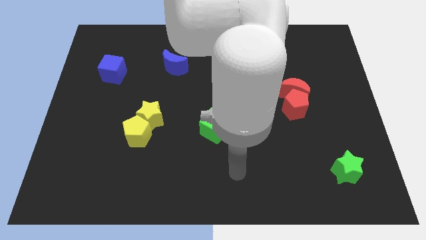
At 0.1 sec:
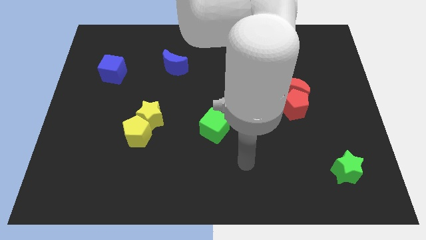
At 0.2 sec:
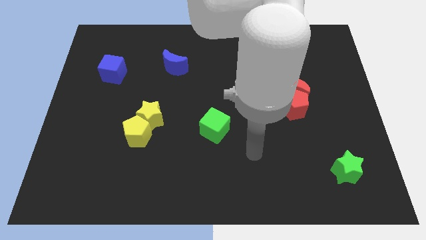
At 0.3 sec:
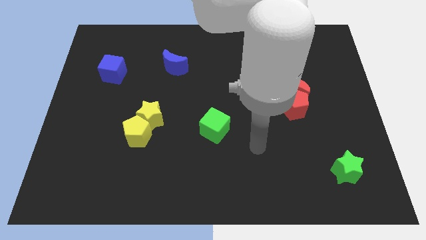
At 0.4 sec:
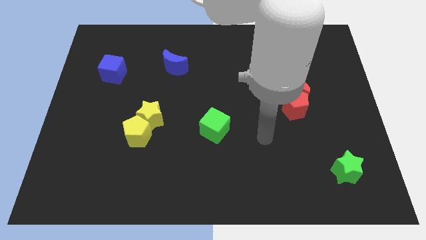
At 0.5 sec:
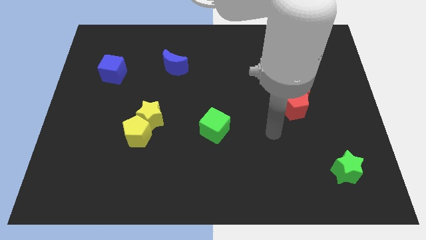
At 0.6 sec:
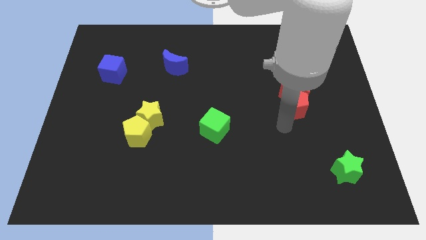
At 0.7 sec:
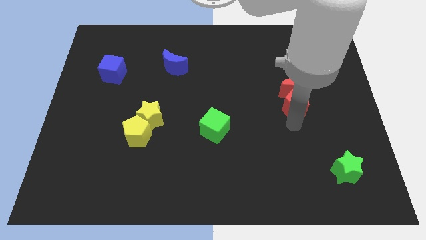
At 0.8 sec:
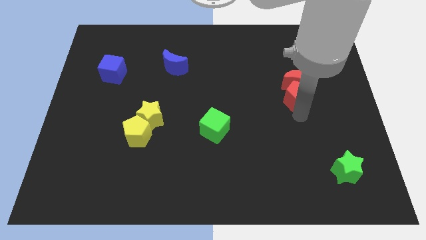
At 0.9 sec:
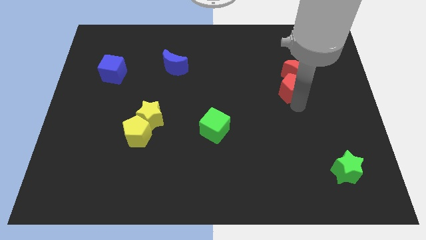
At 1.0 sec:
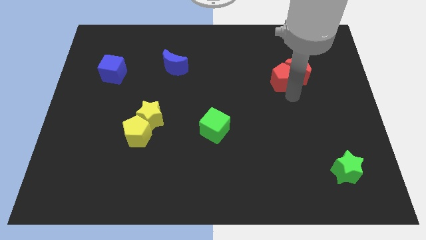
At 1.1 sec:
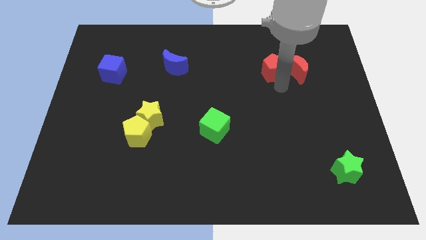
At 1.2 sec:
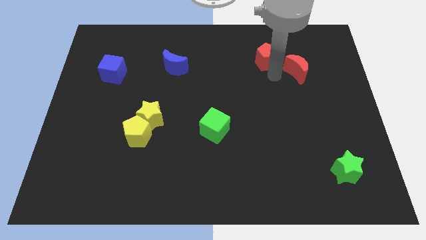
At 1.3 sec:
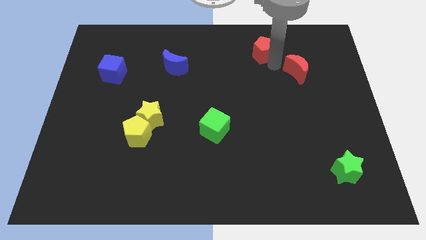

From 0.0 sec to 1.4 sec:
pull the red moon apart from the red pentagon

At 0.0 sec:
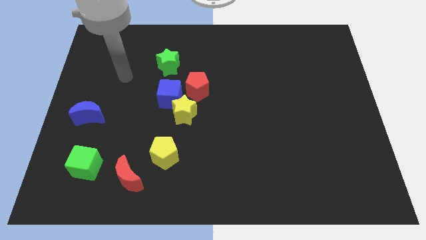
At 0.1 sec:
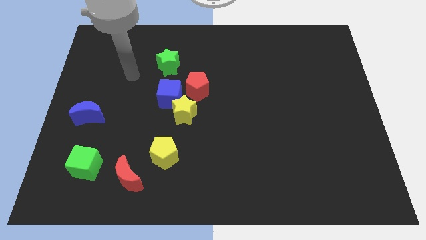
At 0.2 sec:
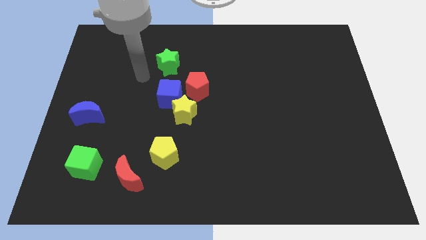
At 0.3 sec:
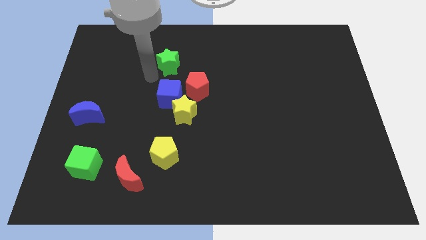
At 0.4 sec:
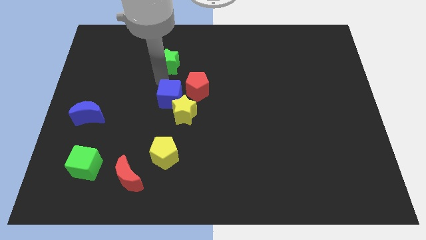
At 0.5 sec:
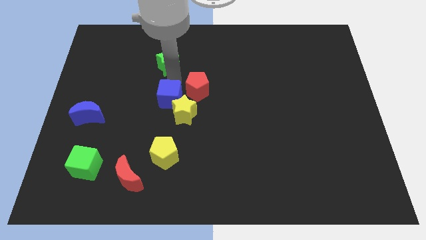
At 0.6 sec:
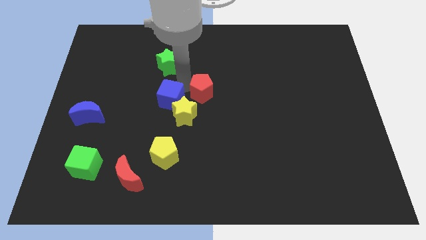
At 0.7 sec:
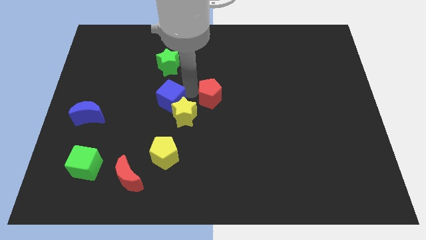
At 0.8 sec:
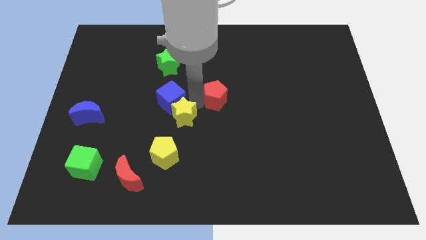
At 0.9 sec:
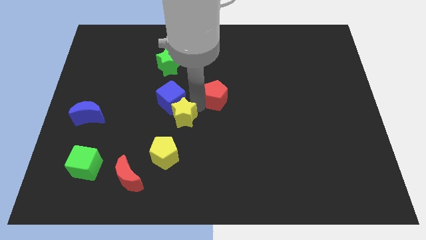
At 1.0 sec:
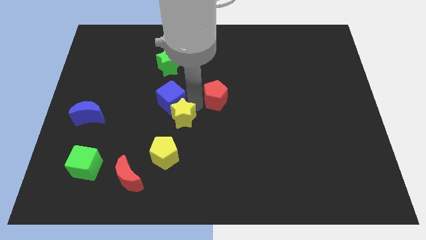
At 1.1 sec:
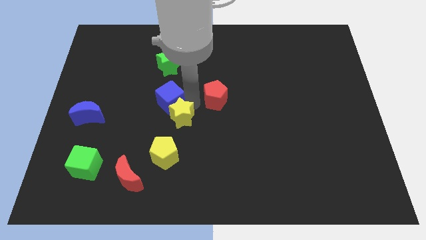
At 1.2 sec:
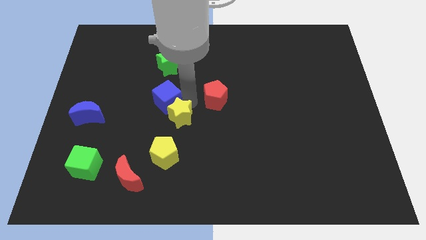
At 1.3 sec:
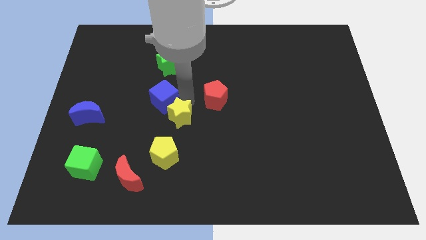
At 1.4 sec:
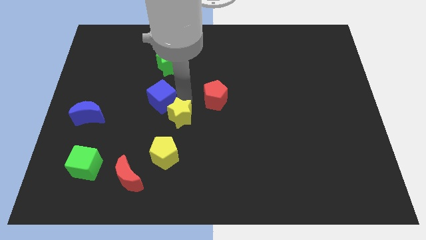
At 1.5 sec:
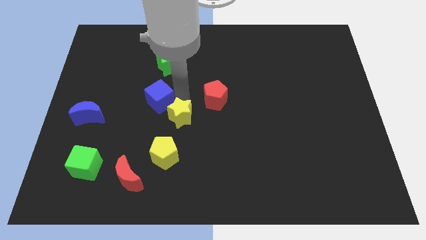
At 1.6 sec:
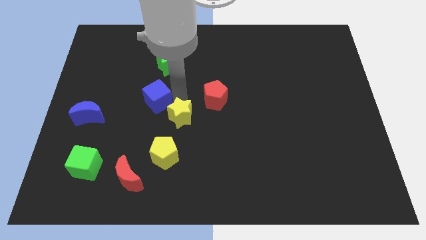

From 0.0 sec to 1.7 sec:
separate the blue cube from the yellow star and red pentagon

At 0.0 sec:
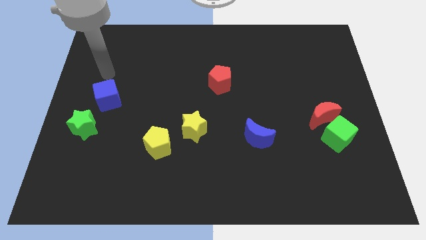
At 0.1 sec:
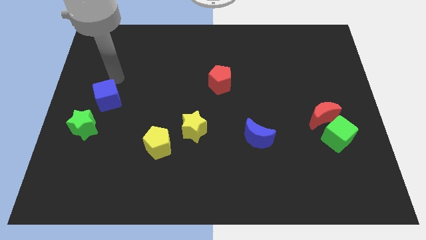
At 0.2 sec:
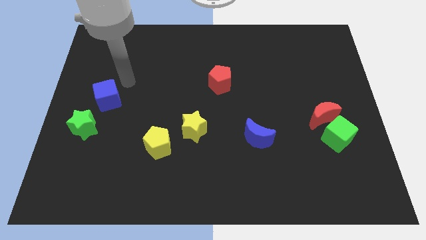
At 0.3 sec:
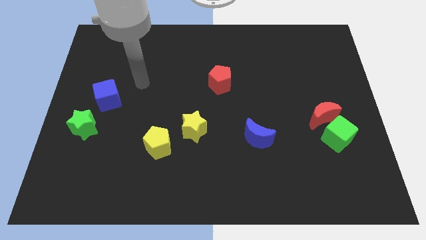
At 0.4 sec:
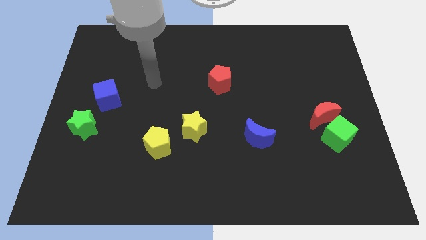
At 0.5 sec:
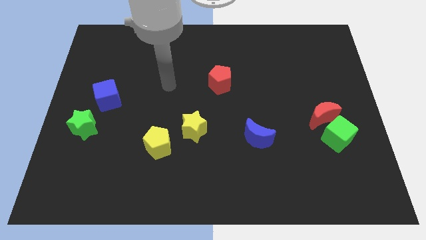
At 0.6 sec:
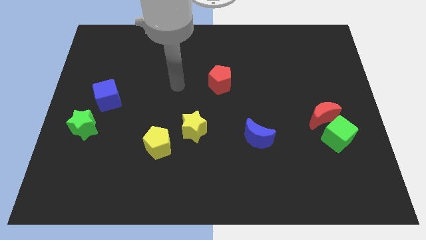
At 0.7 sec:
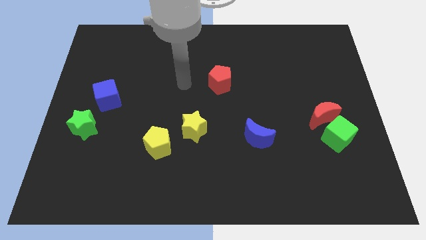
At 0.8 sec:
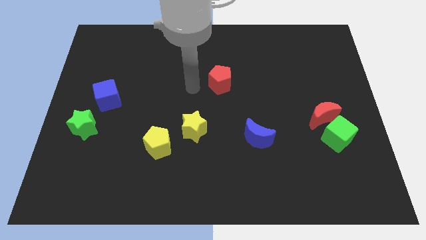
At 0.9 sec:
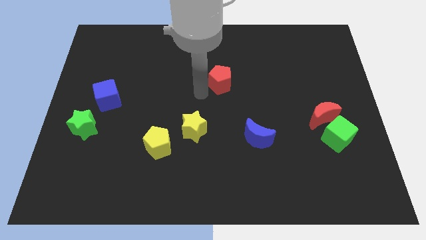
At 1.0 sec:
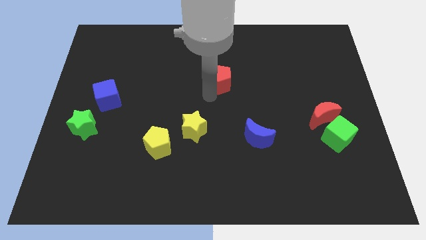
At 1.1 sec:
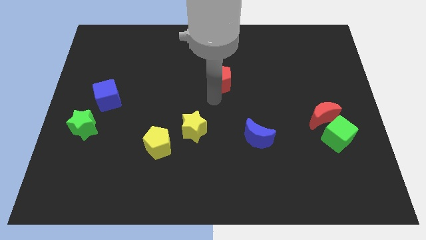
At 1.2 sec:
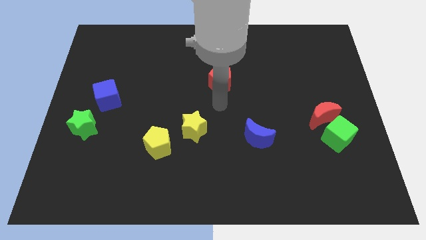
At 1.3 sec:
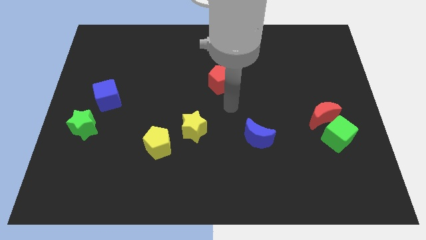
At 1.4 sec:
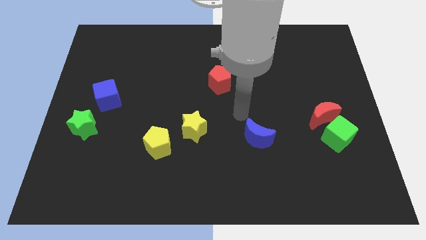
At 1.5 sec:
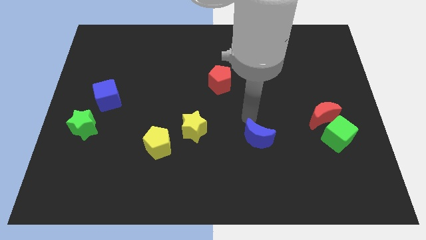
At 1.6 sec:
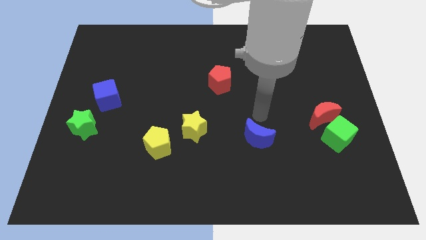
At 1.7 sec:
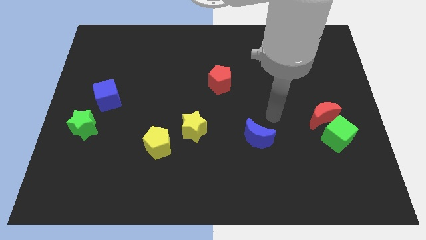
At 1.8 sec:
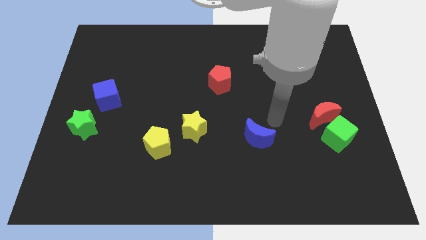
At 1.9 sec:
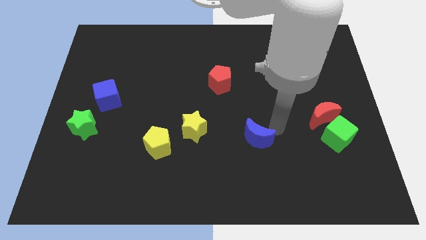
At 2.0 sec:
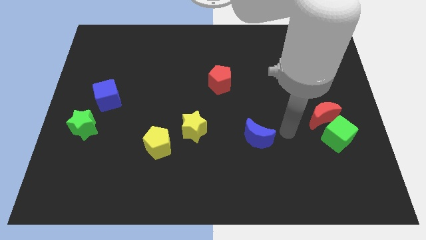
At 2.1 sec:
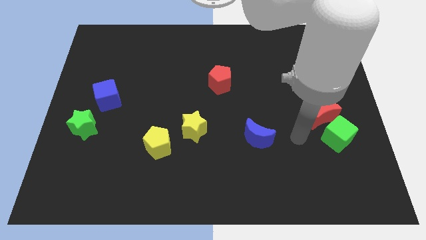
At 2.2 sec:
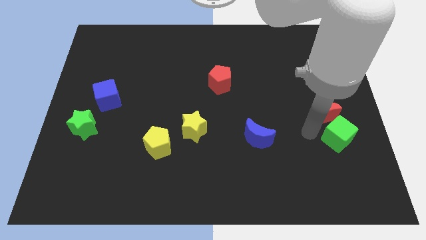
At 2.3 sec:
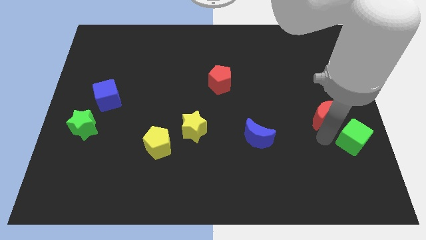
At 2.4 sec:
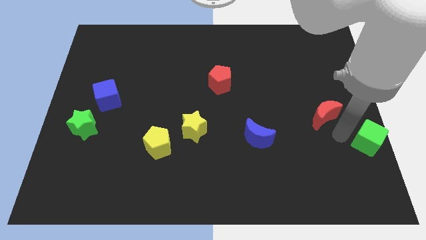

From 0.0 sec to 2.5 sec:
separate the red moon from the green cube

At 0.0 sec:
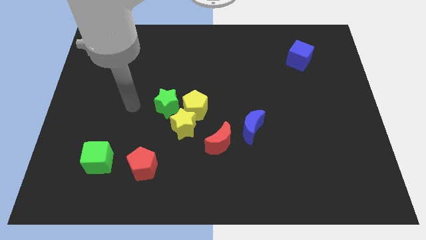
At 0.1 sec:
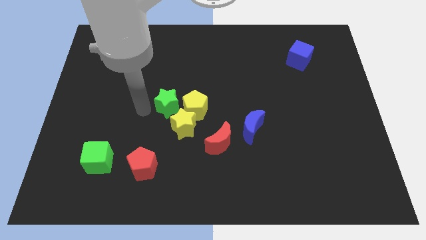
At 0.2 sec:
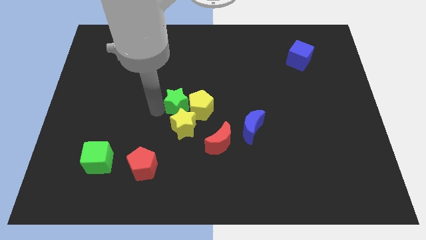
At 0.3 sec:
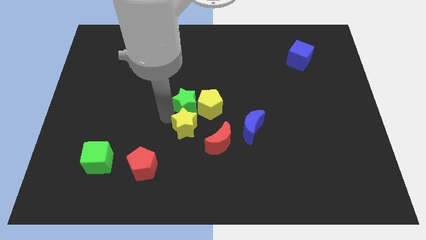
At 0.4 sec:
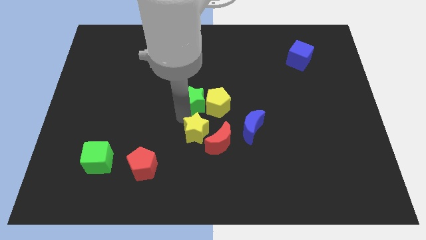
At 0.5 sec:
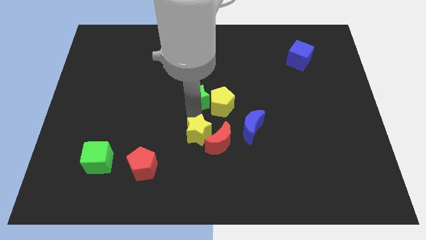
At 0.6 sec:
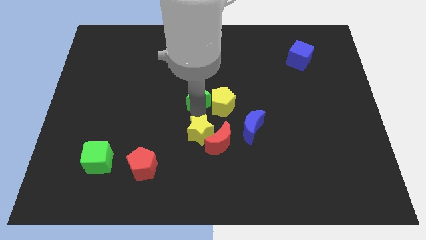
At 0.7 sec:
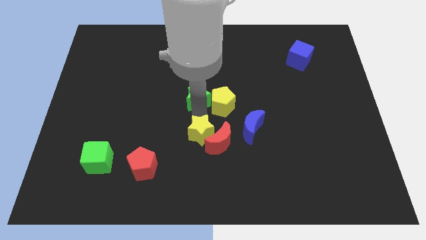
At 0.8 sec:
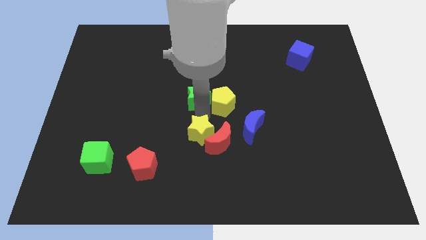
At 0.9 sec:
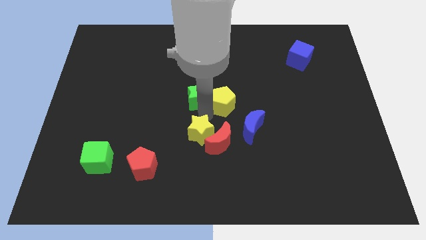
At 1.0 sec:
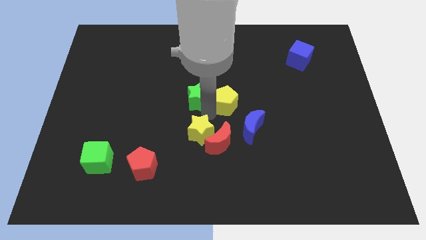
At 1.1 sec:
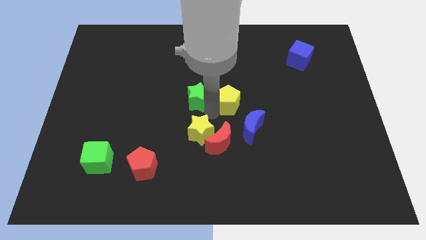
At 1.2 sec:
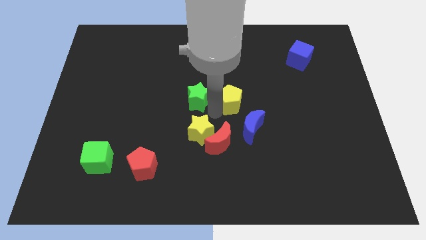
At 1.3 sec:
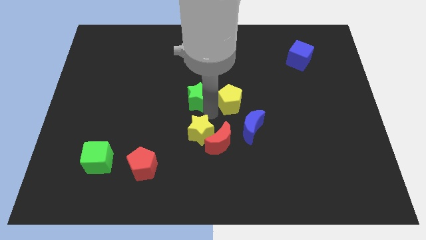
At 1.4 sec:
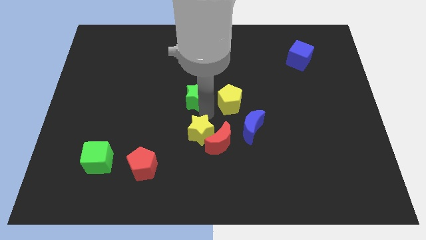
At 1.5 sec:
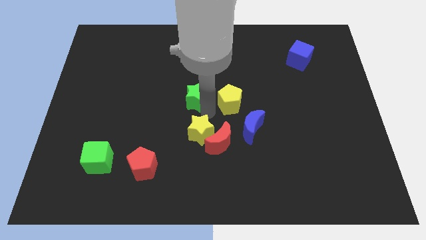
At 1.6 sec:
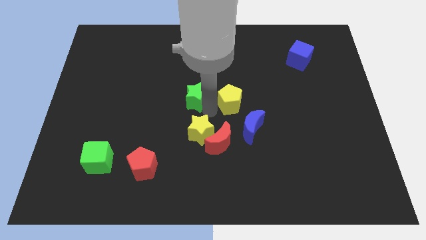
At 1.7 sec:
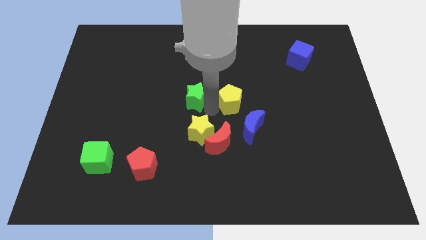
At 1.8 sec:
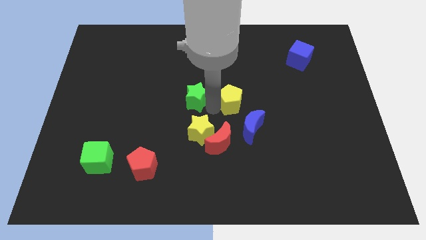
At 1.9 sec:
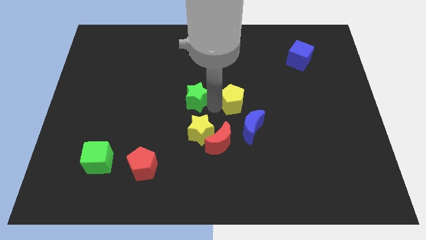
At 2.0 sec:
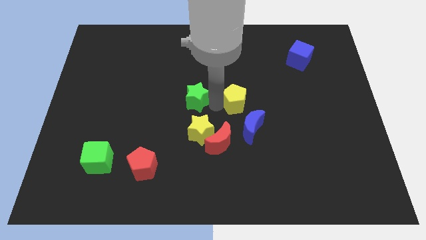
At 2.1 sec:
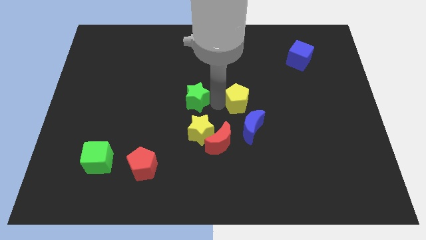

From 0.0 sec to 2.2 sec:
pull the yellow pentagon apart from the yellow star and green star

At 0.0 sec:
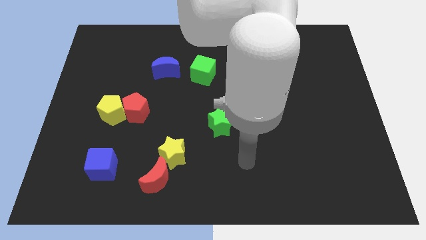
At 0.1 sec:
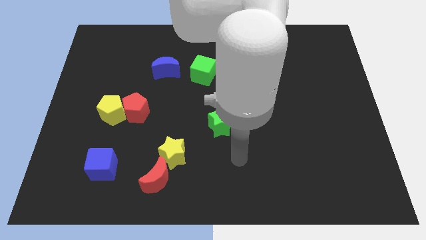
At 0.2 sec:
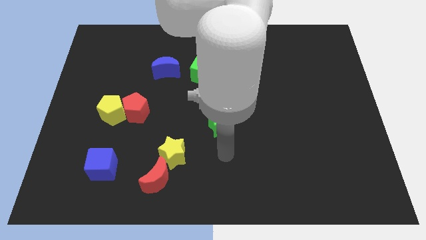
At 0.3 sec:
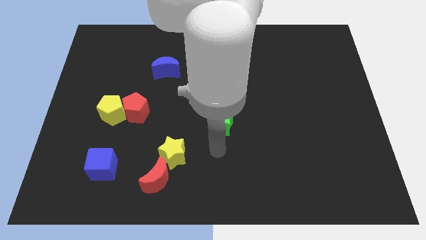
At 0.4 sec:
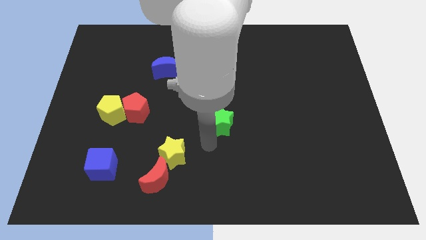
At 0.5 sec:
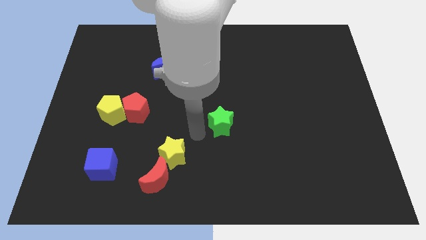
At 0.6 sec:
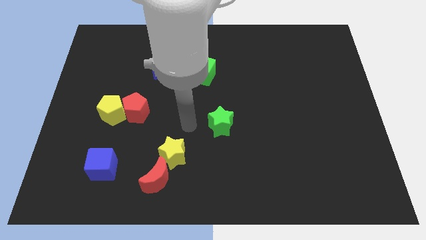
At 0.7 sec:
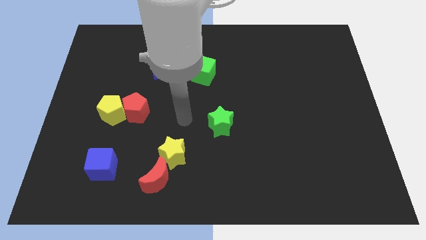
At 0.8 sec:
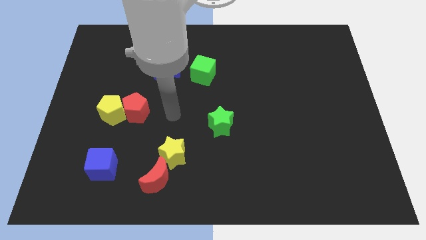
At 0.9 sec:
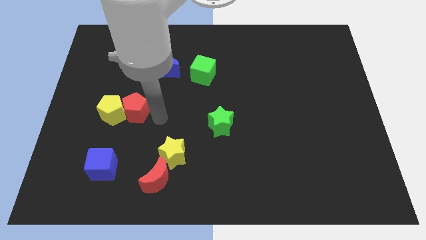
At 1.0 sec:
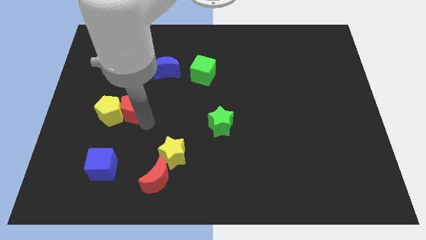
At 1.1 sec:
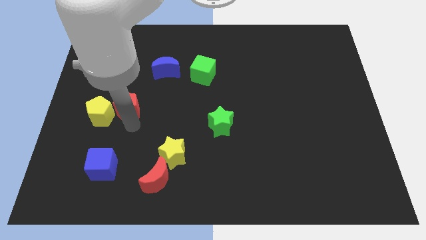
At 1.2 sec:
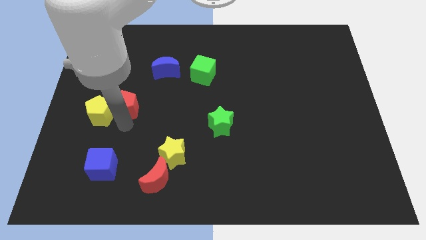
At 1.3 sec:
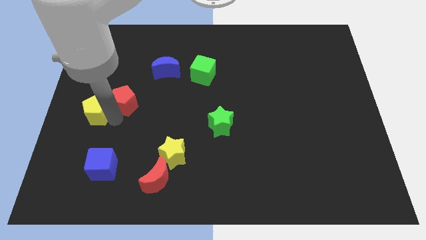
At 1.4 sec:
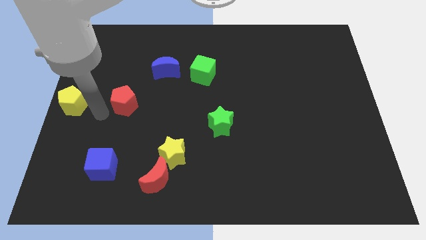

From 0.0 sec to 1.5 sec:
pull the red pentagon apart from the yellow pentagon
